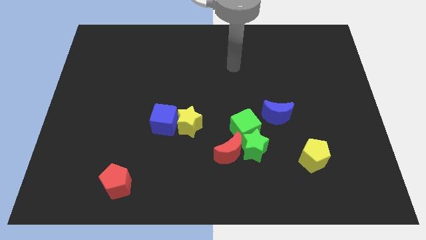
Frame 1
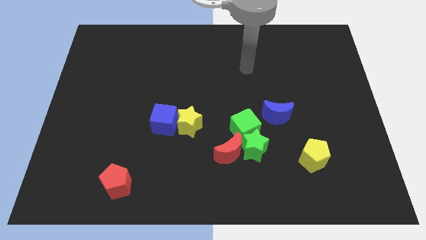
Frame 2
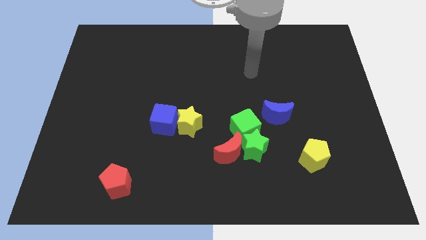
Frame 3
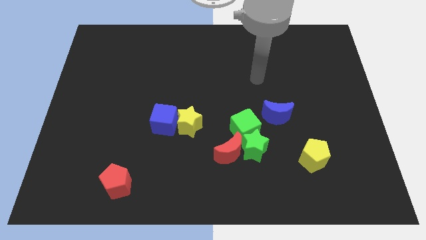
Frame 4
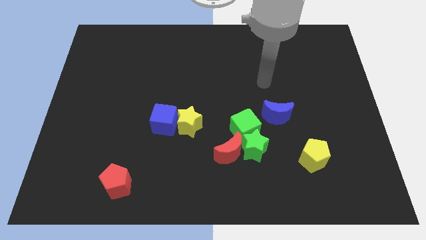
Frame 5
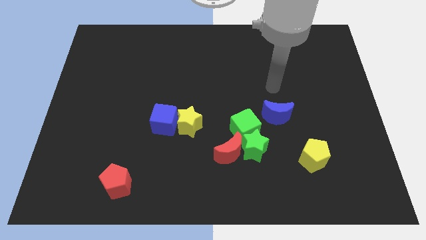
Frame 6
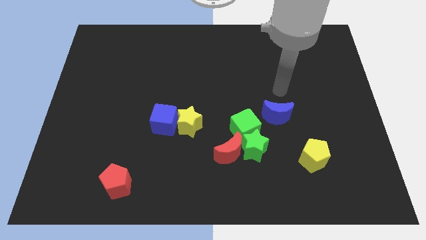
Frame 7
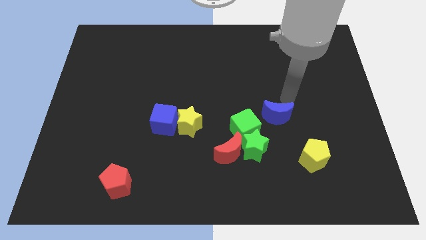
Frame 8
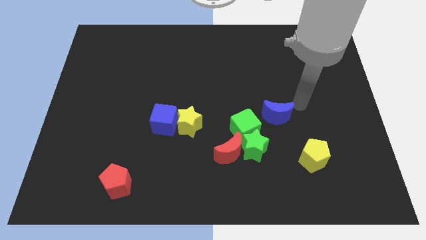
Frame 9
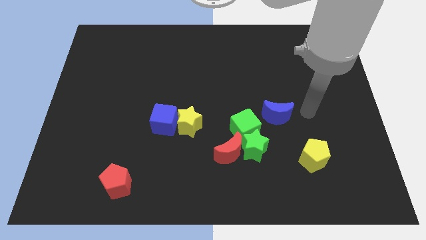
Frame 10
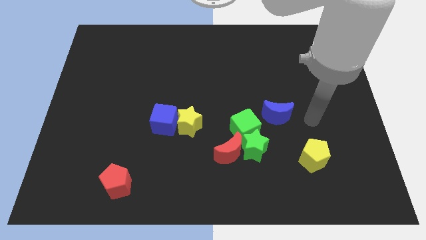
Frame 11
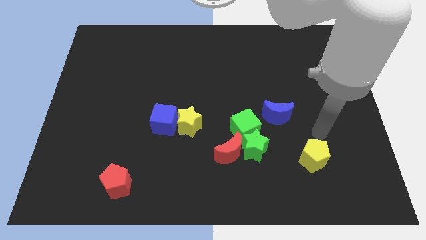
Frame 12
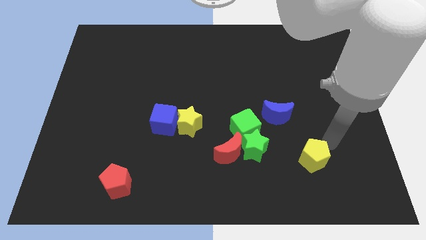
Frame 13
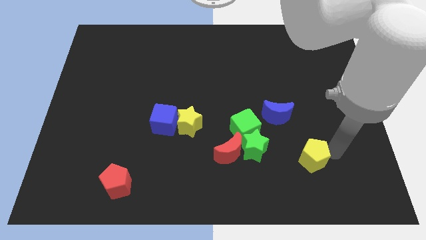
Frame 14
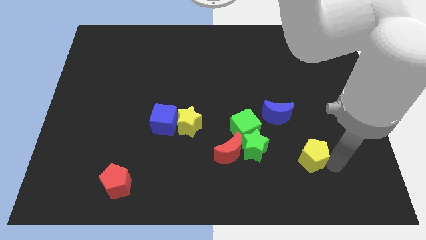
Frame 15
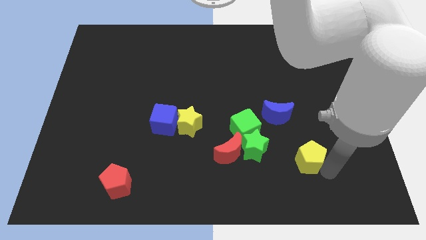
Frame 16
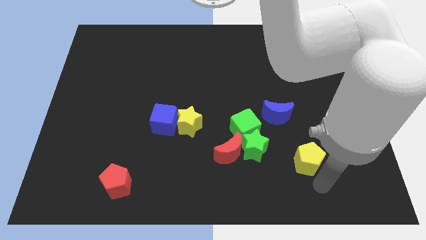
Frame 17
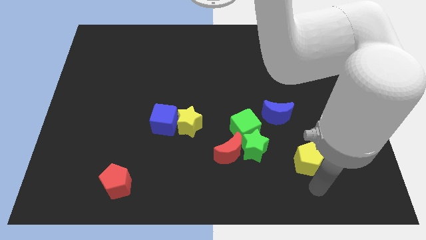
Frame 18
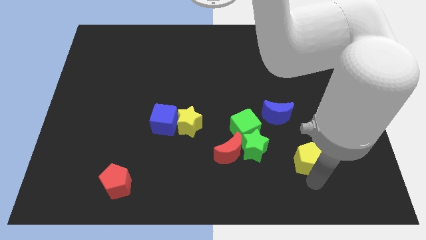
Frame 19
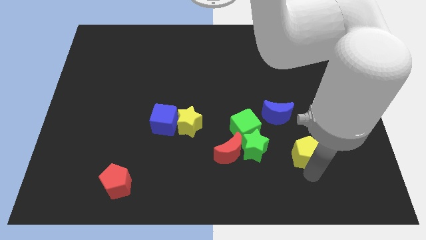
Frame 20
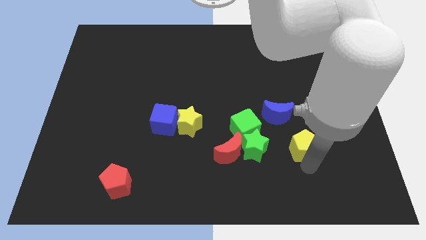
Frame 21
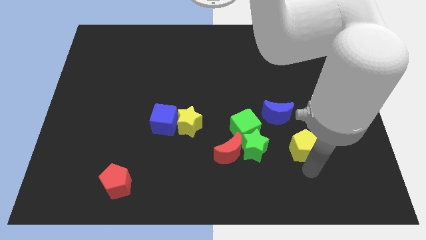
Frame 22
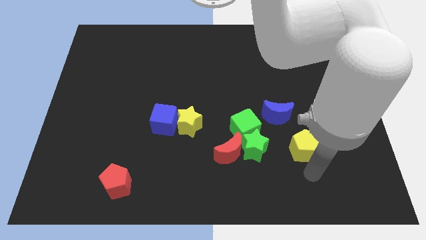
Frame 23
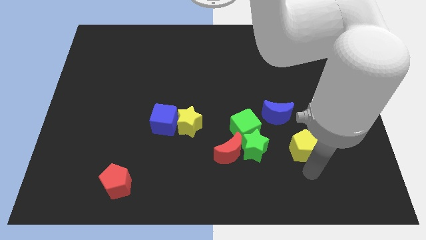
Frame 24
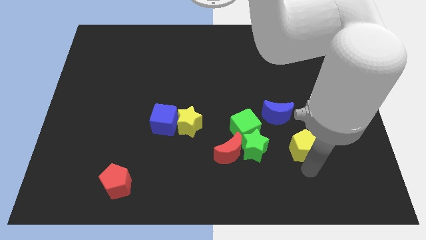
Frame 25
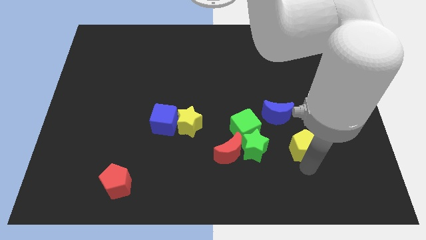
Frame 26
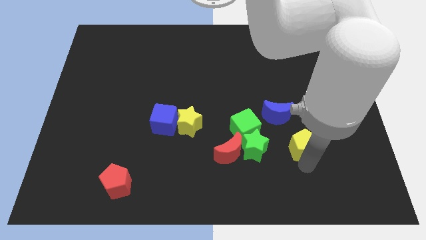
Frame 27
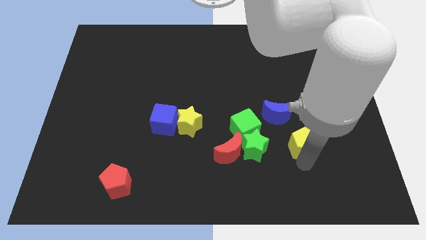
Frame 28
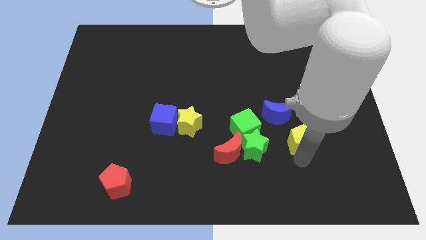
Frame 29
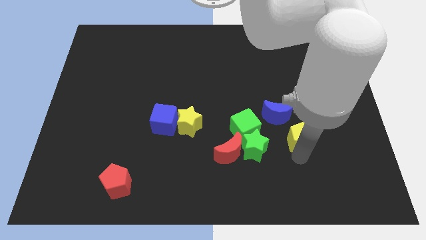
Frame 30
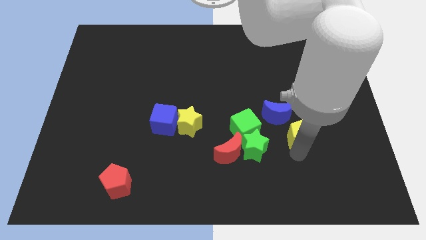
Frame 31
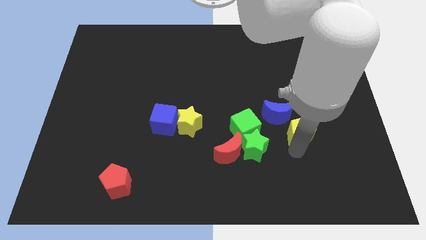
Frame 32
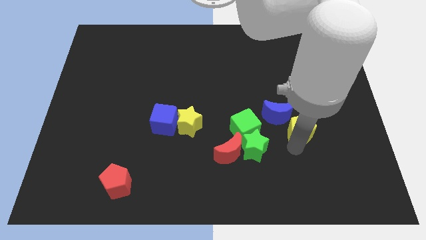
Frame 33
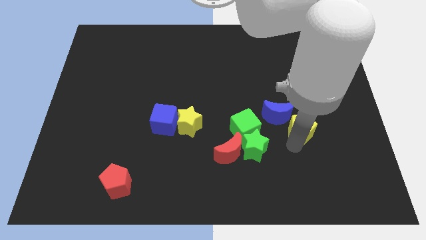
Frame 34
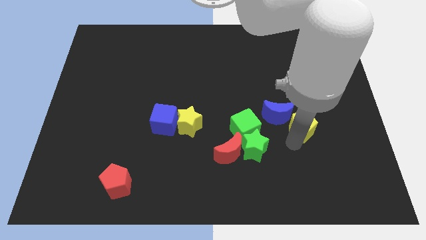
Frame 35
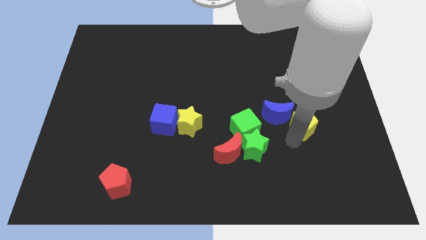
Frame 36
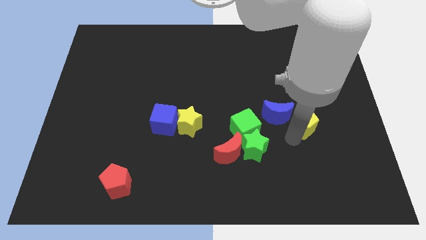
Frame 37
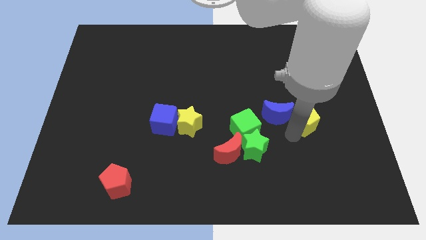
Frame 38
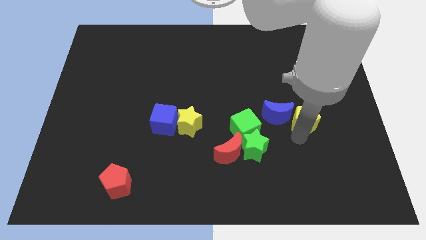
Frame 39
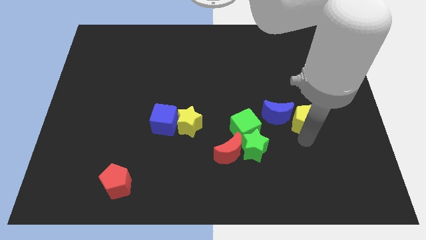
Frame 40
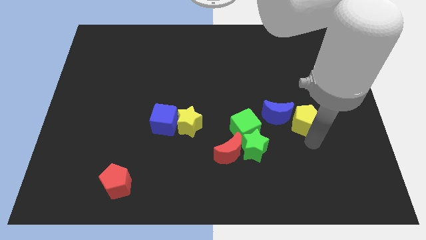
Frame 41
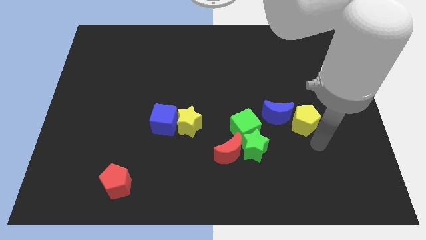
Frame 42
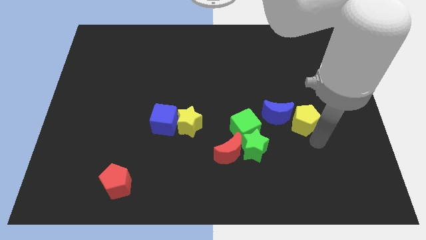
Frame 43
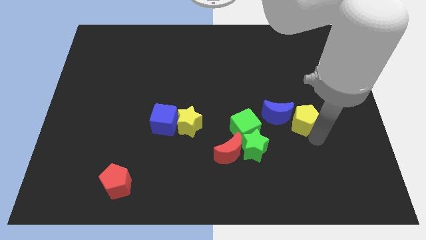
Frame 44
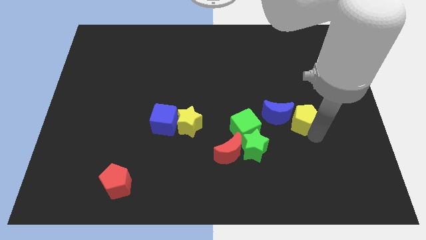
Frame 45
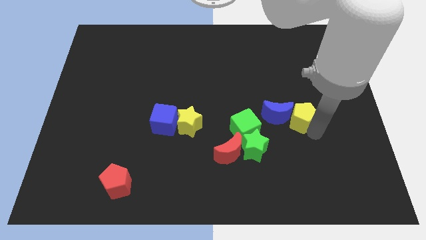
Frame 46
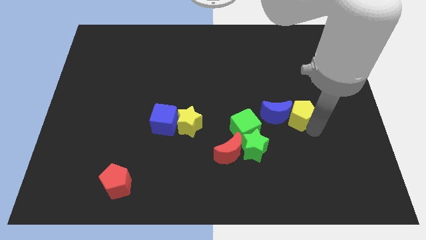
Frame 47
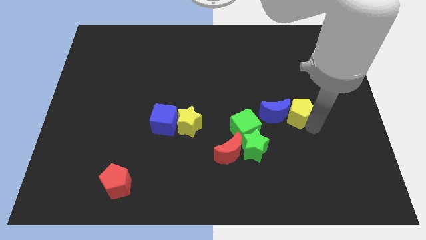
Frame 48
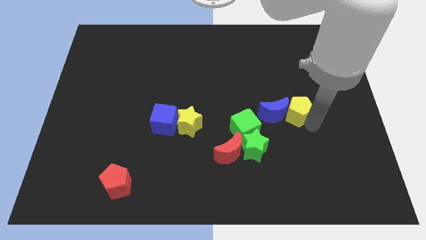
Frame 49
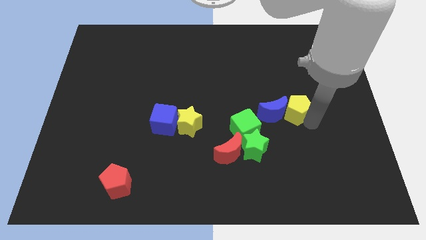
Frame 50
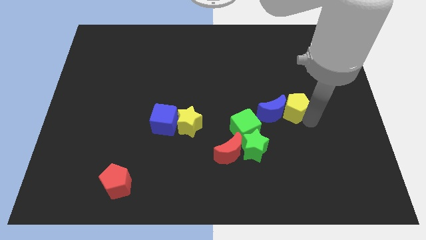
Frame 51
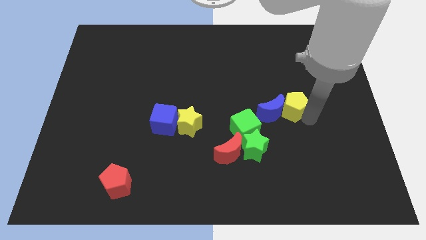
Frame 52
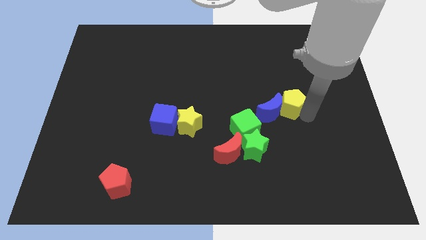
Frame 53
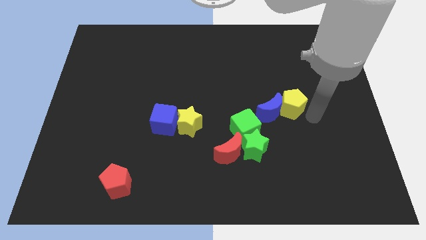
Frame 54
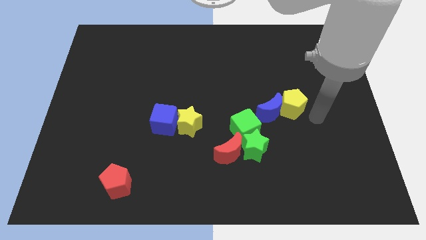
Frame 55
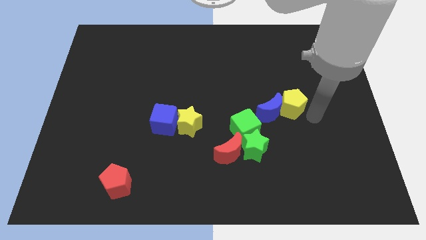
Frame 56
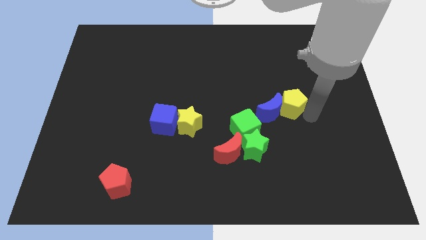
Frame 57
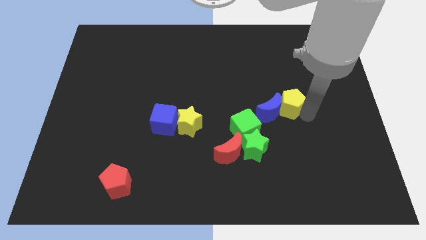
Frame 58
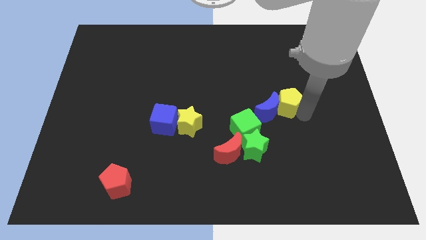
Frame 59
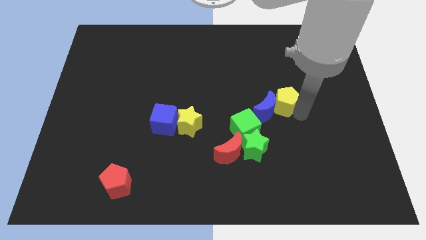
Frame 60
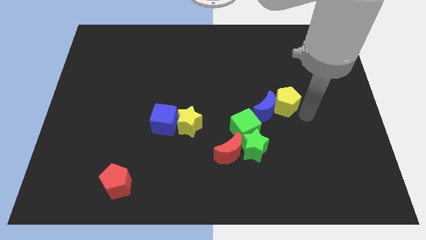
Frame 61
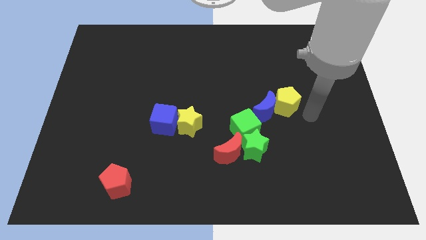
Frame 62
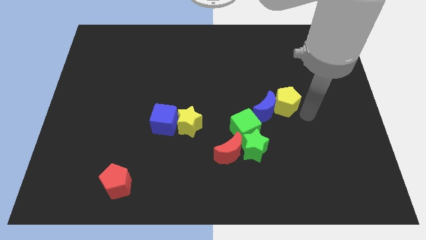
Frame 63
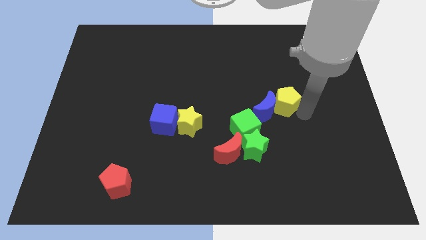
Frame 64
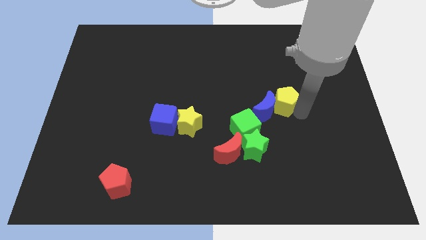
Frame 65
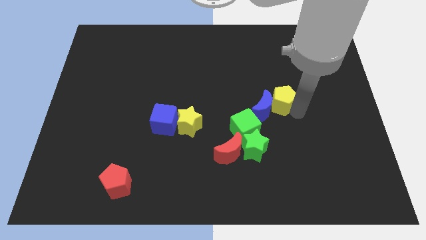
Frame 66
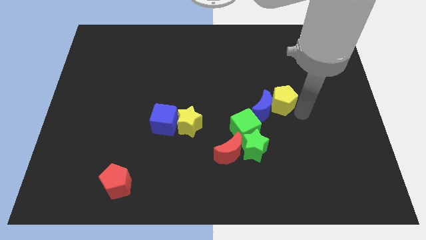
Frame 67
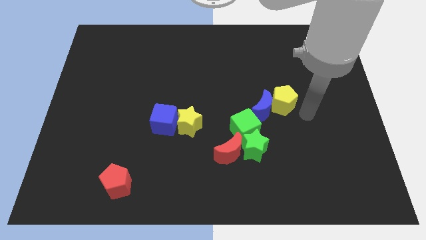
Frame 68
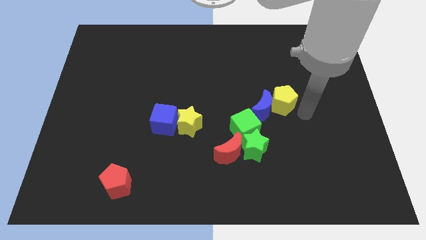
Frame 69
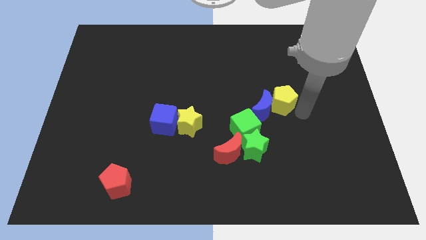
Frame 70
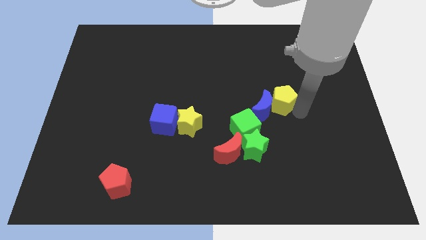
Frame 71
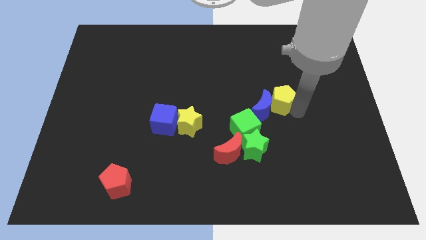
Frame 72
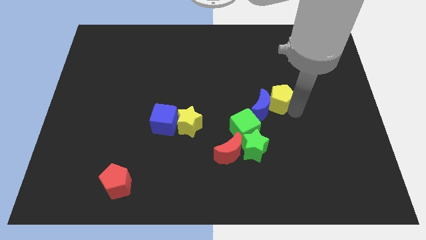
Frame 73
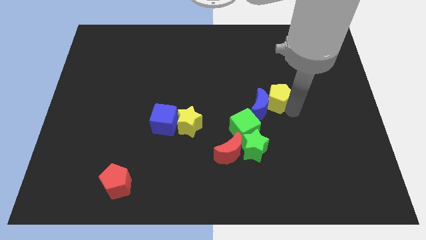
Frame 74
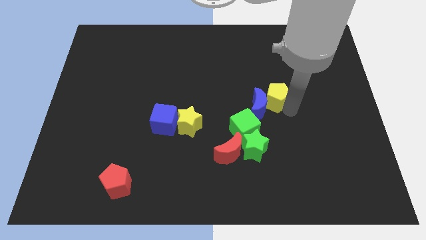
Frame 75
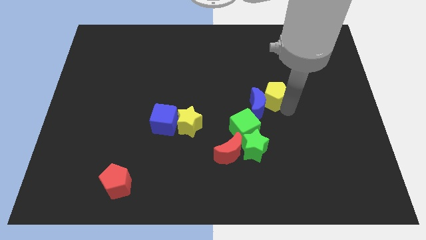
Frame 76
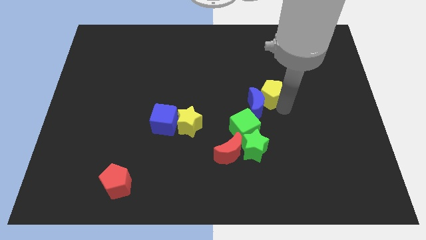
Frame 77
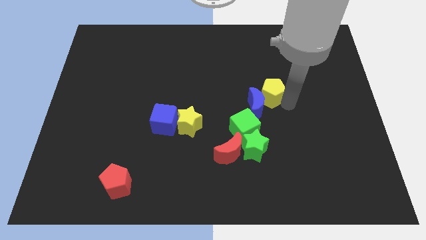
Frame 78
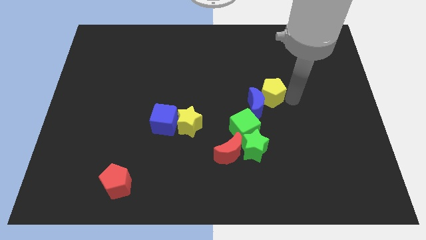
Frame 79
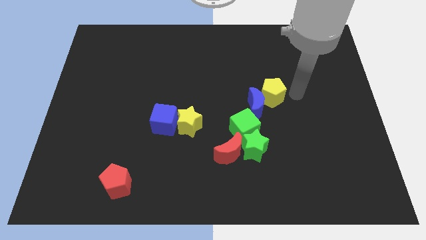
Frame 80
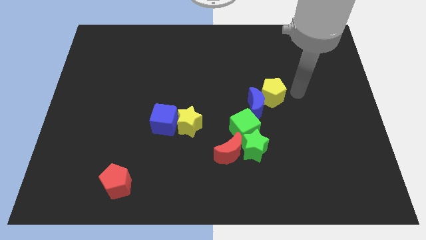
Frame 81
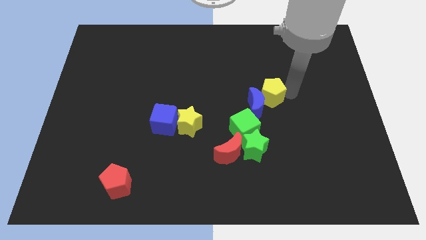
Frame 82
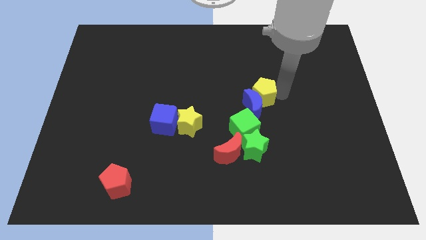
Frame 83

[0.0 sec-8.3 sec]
move the yellow pentagon to the middle of the board
